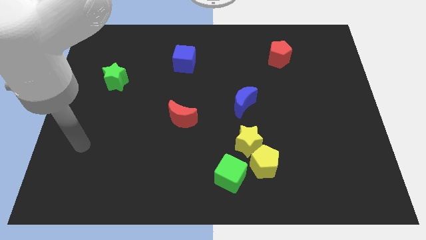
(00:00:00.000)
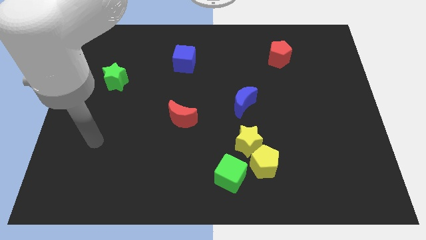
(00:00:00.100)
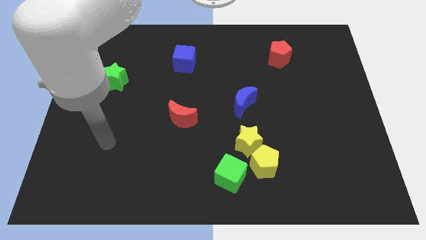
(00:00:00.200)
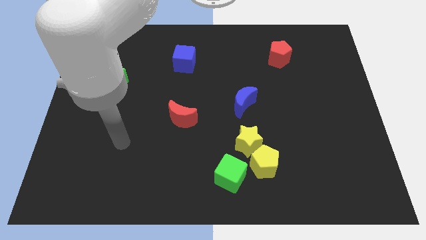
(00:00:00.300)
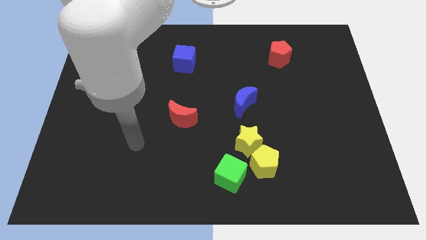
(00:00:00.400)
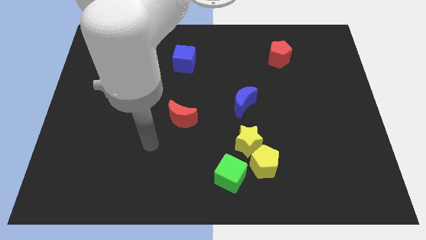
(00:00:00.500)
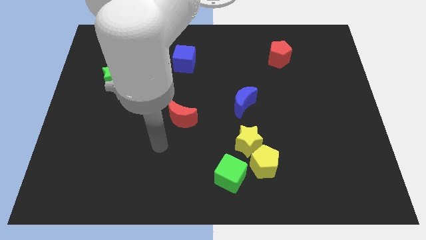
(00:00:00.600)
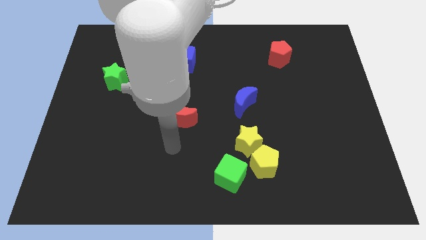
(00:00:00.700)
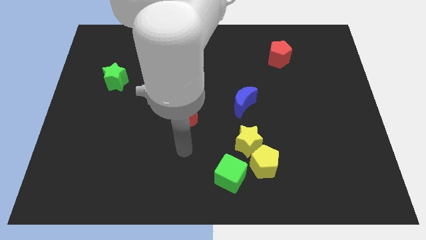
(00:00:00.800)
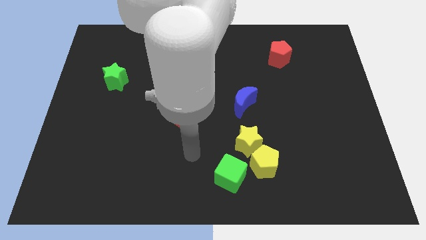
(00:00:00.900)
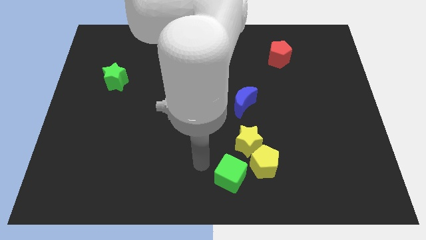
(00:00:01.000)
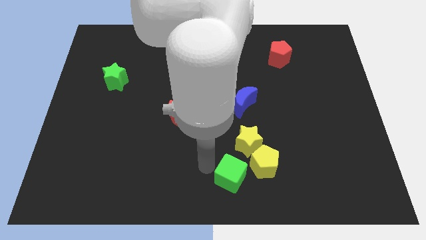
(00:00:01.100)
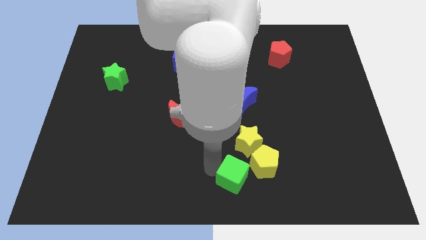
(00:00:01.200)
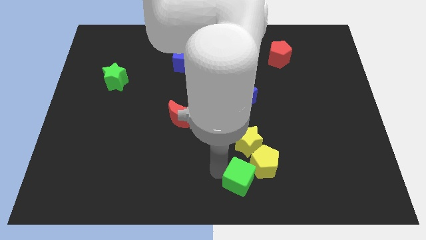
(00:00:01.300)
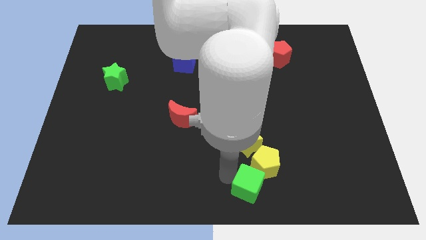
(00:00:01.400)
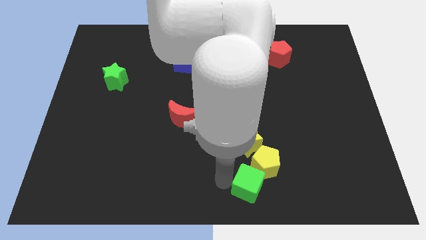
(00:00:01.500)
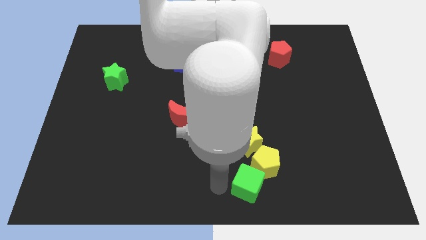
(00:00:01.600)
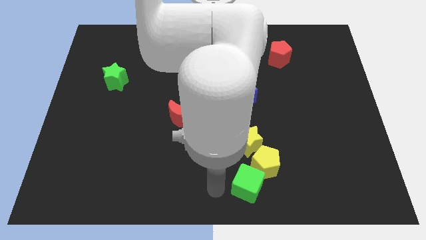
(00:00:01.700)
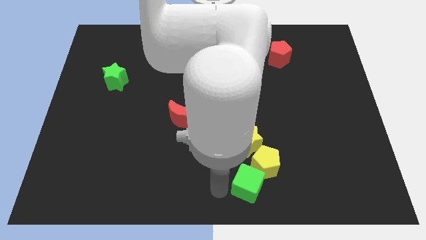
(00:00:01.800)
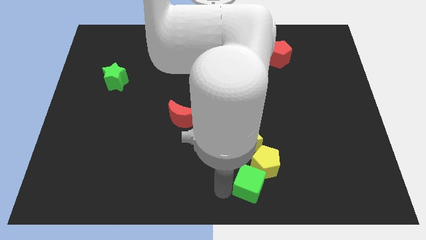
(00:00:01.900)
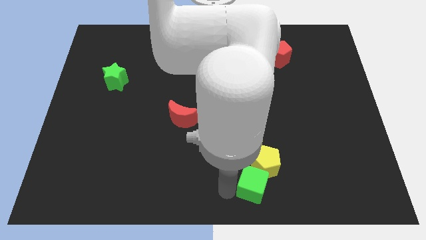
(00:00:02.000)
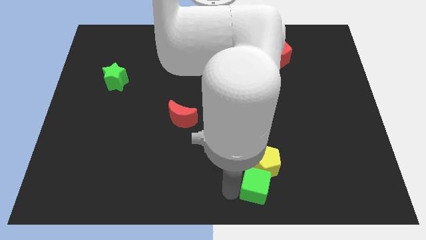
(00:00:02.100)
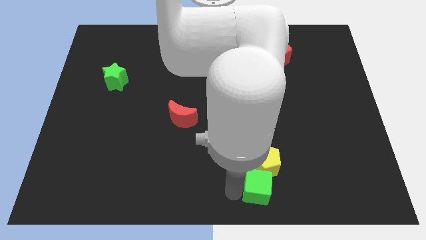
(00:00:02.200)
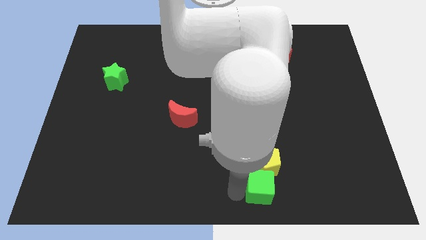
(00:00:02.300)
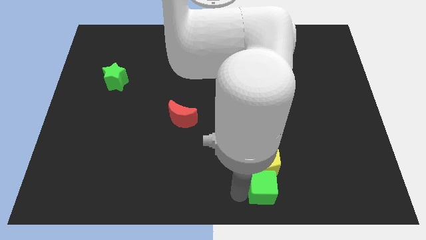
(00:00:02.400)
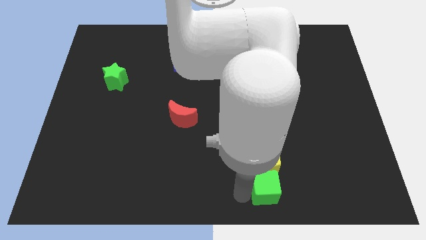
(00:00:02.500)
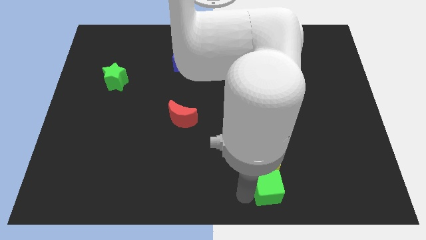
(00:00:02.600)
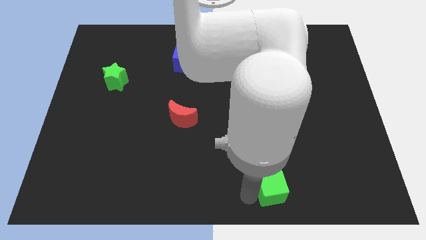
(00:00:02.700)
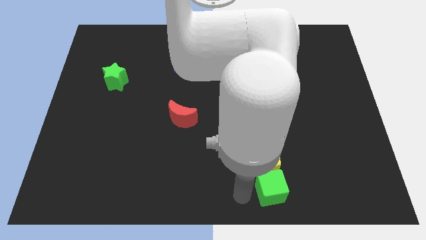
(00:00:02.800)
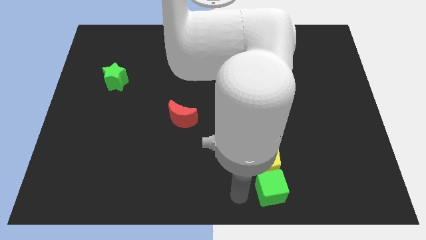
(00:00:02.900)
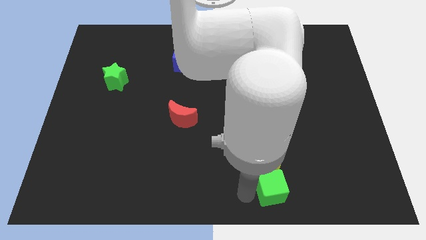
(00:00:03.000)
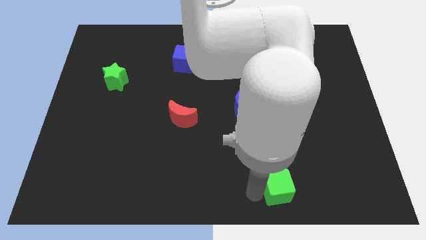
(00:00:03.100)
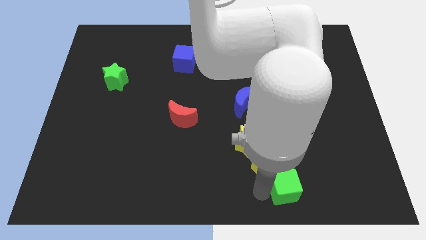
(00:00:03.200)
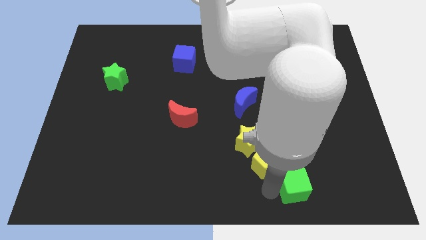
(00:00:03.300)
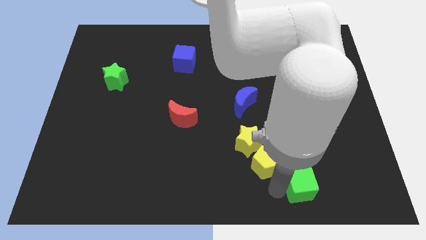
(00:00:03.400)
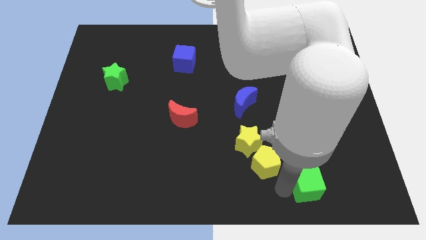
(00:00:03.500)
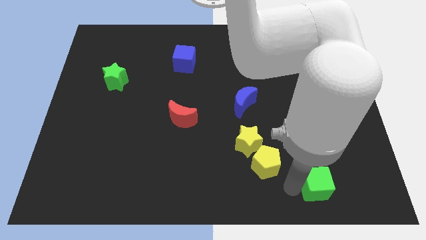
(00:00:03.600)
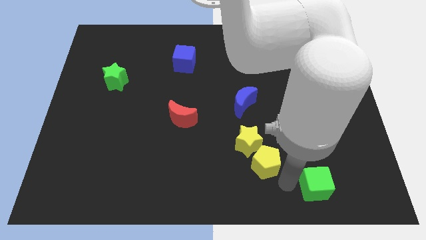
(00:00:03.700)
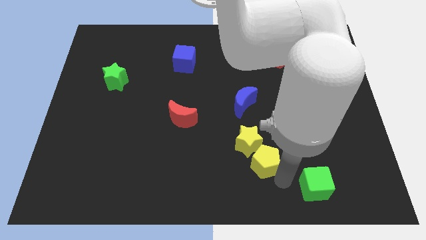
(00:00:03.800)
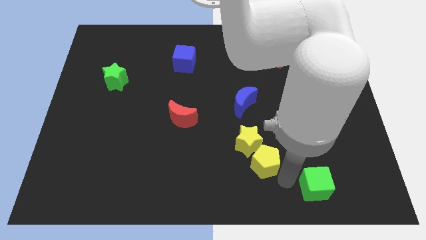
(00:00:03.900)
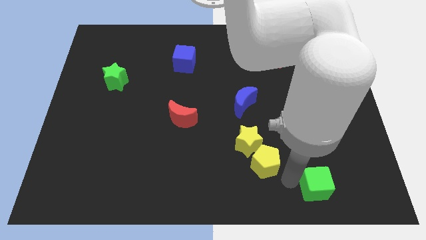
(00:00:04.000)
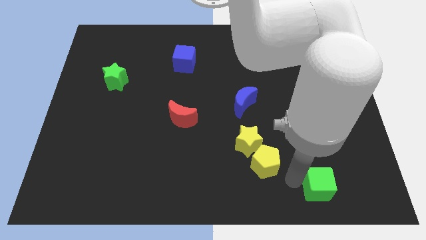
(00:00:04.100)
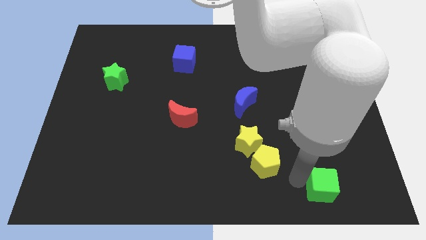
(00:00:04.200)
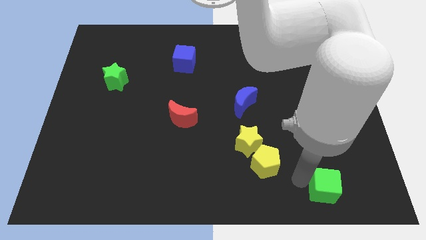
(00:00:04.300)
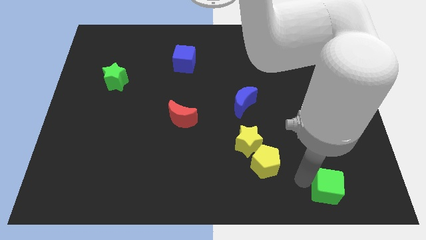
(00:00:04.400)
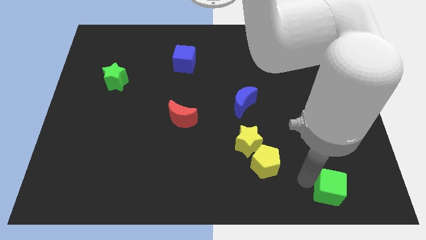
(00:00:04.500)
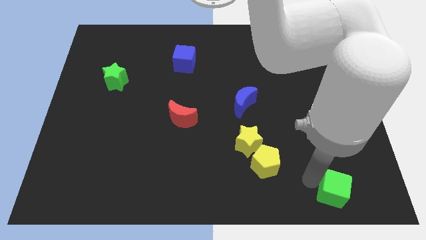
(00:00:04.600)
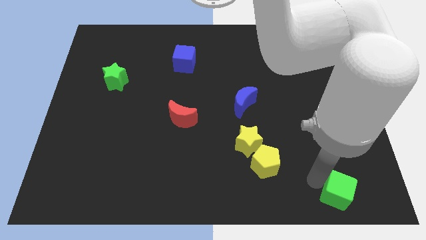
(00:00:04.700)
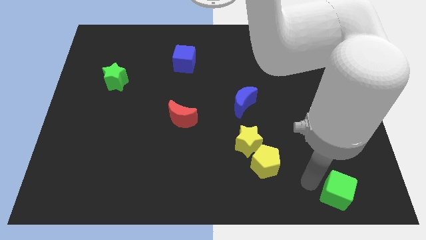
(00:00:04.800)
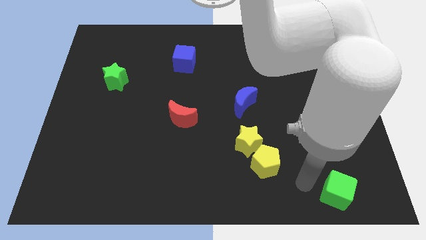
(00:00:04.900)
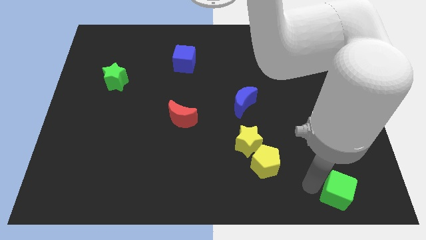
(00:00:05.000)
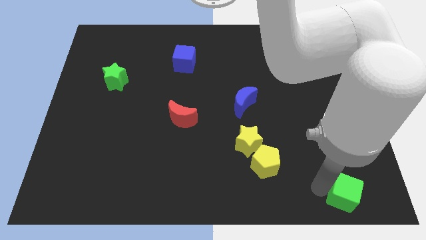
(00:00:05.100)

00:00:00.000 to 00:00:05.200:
put the green cube to the bottom right of the board

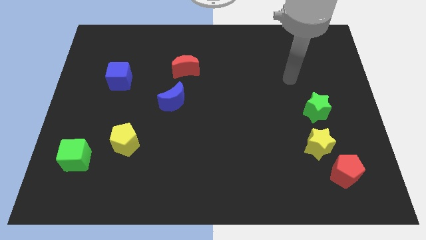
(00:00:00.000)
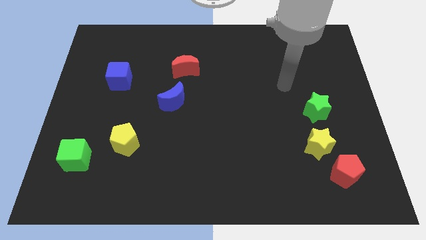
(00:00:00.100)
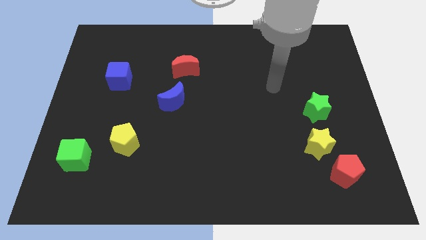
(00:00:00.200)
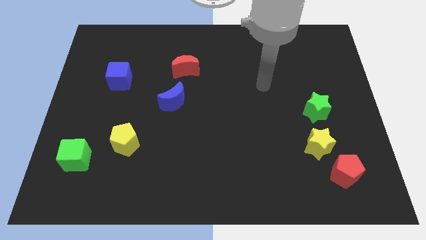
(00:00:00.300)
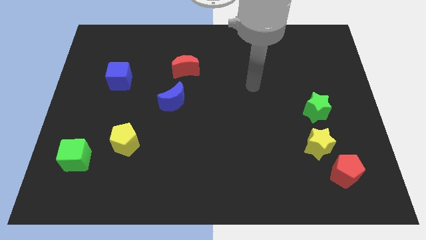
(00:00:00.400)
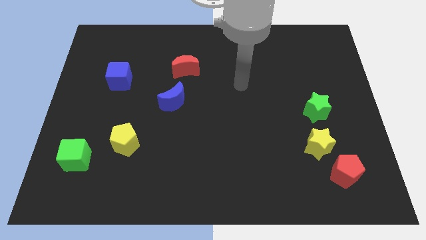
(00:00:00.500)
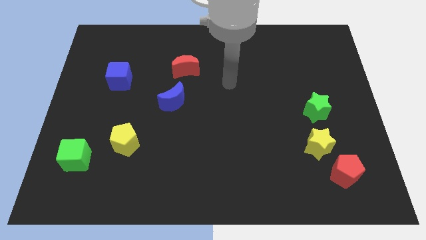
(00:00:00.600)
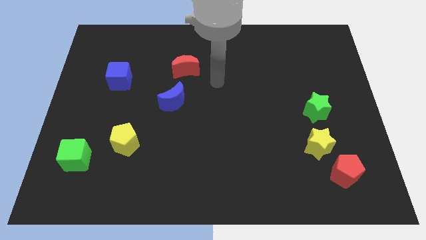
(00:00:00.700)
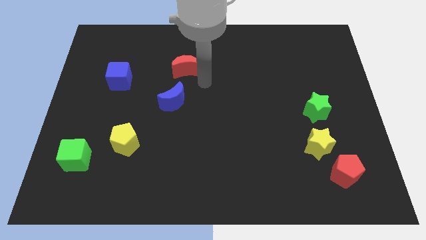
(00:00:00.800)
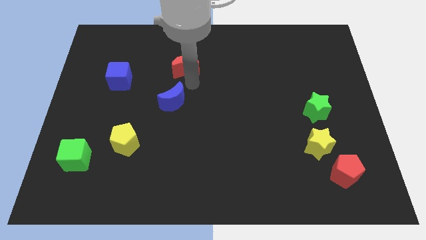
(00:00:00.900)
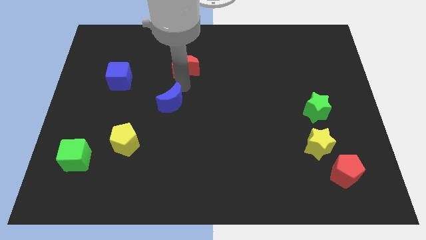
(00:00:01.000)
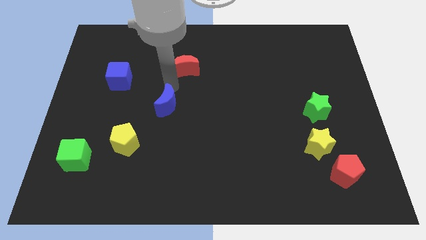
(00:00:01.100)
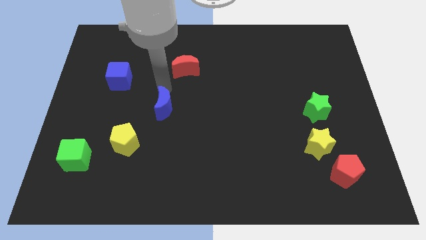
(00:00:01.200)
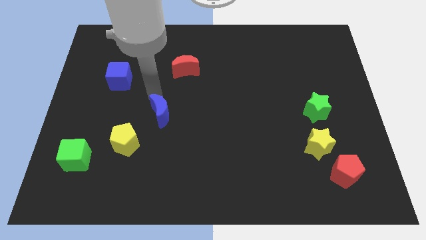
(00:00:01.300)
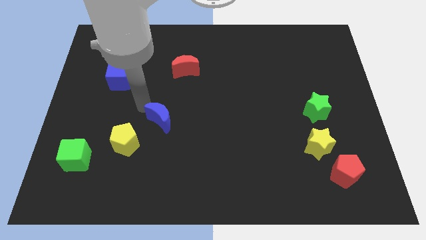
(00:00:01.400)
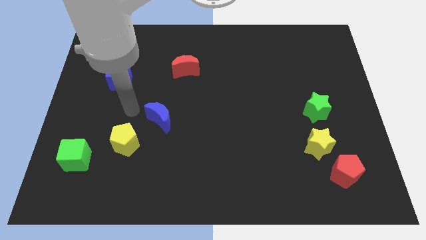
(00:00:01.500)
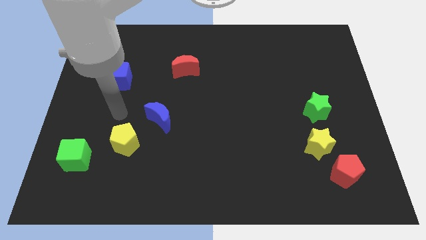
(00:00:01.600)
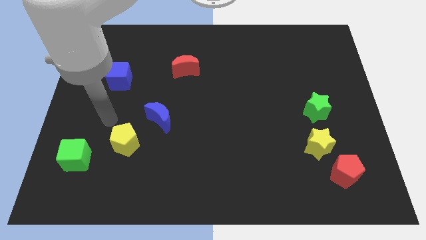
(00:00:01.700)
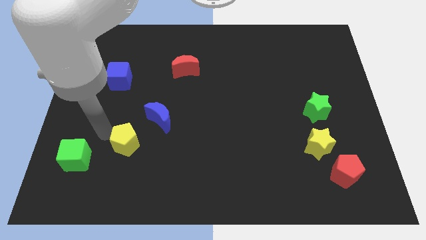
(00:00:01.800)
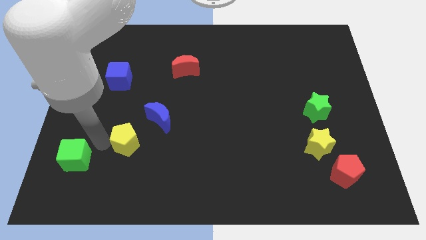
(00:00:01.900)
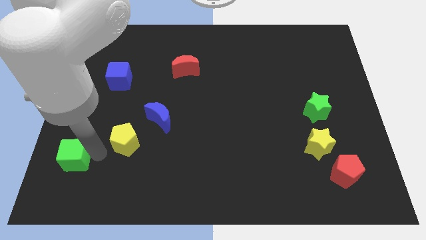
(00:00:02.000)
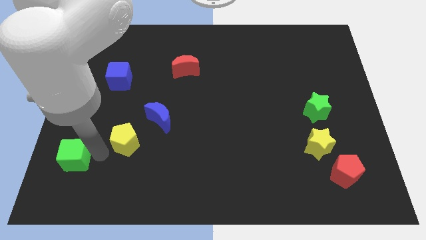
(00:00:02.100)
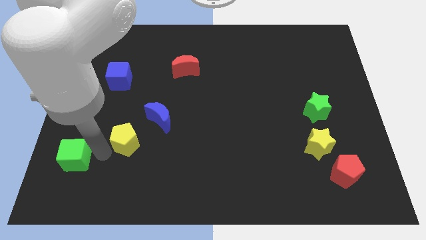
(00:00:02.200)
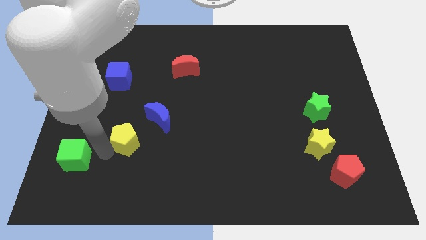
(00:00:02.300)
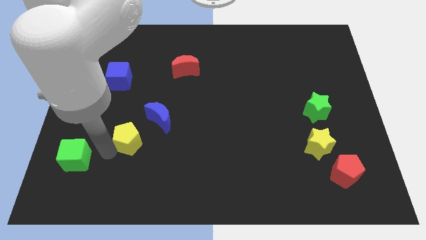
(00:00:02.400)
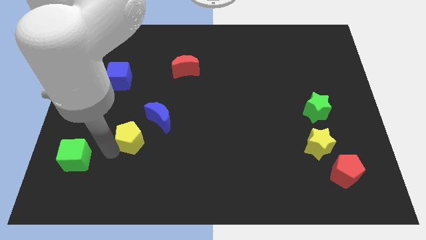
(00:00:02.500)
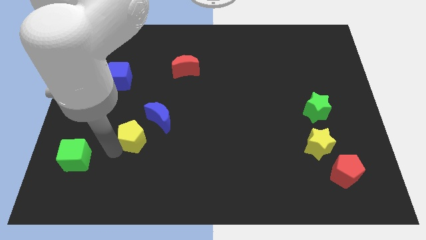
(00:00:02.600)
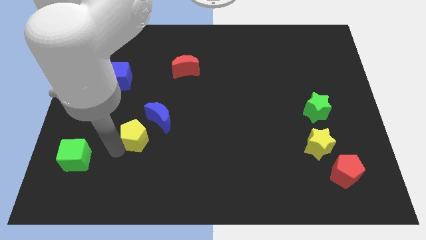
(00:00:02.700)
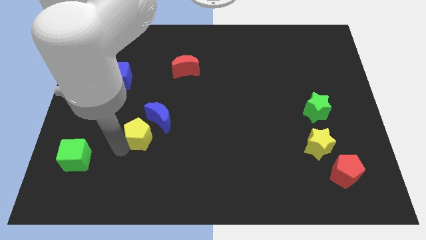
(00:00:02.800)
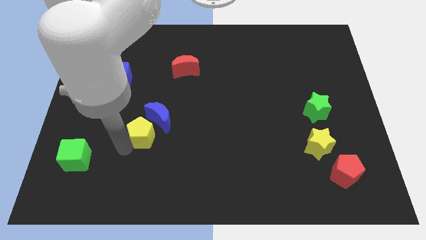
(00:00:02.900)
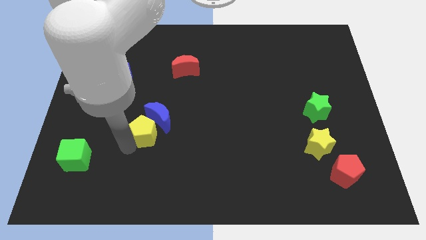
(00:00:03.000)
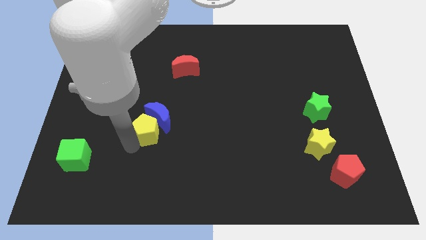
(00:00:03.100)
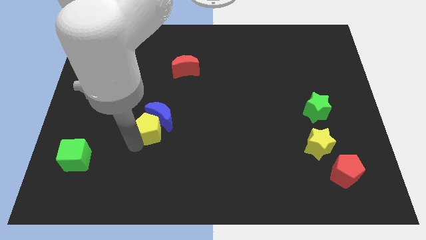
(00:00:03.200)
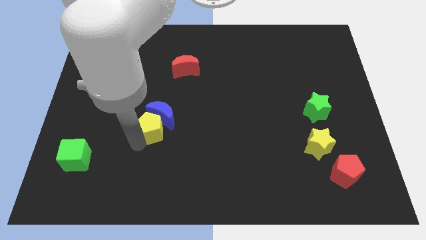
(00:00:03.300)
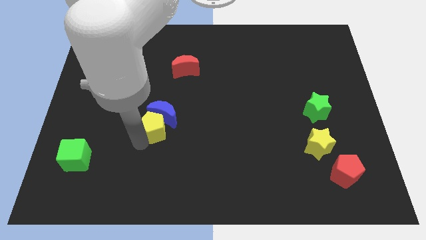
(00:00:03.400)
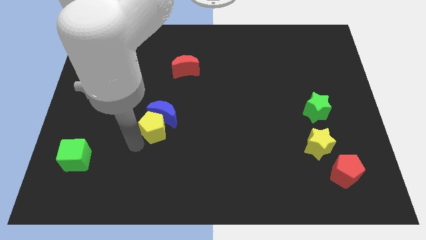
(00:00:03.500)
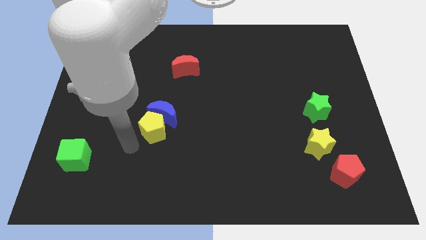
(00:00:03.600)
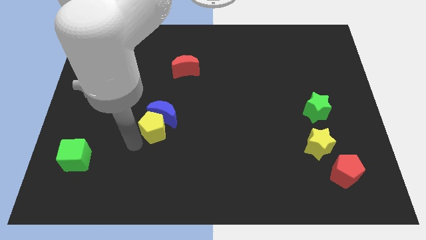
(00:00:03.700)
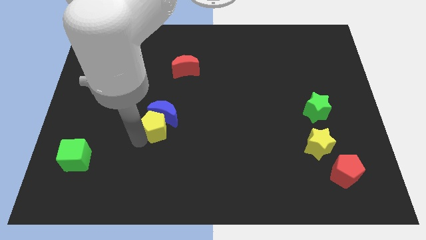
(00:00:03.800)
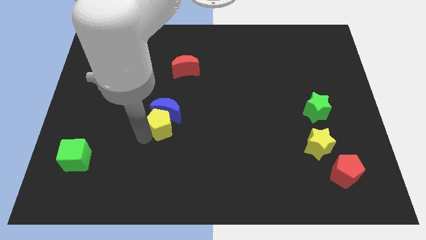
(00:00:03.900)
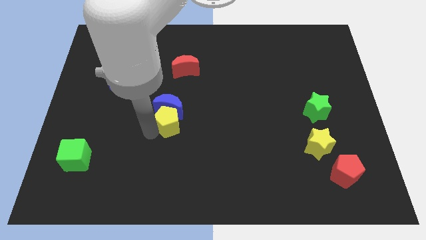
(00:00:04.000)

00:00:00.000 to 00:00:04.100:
push the yellow pentagon to the center
